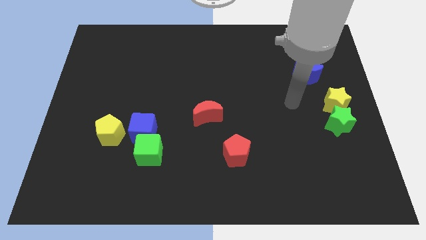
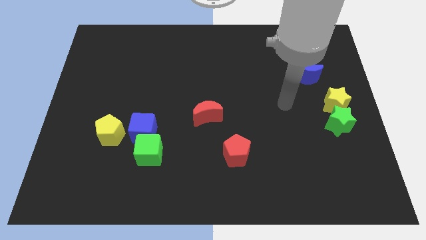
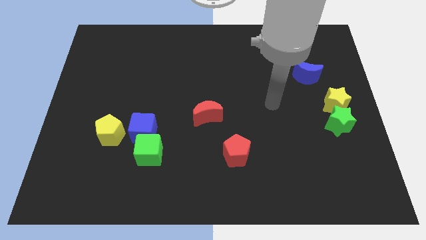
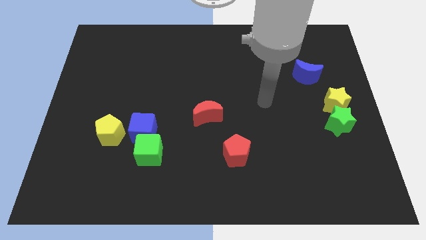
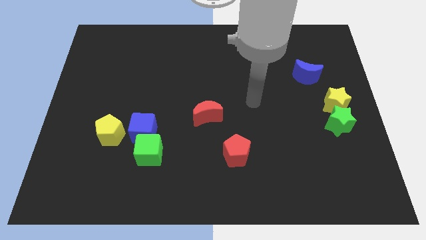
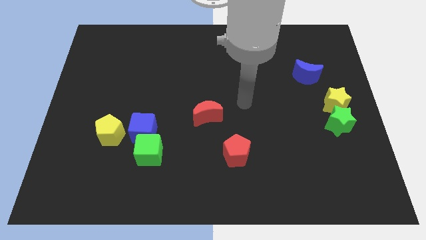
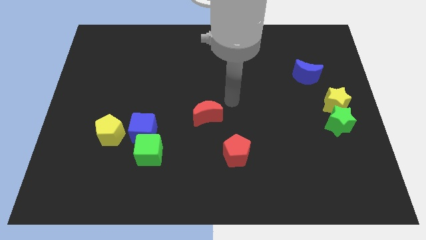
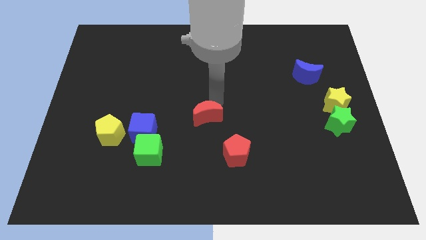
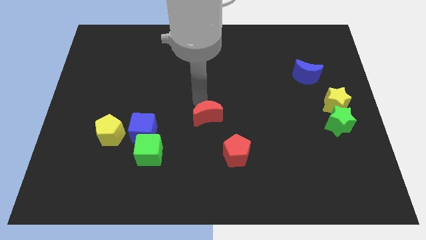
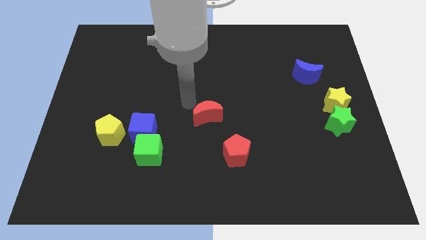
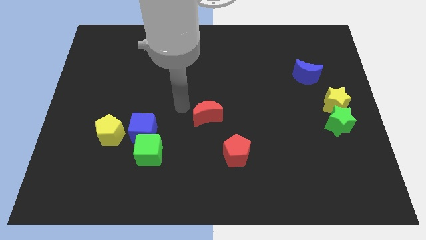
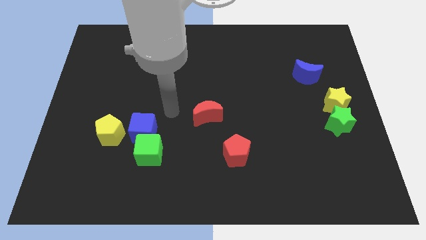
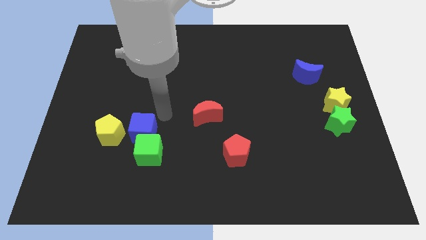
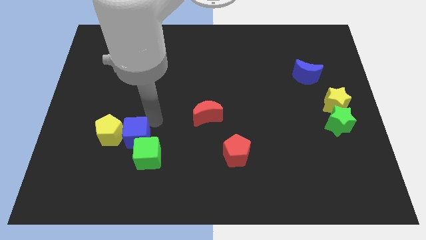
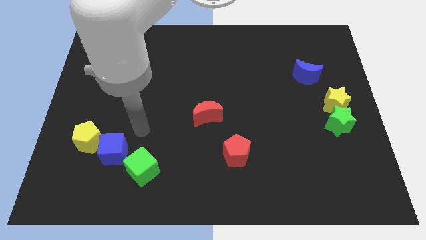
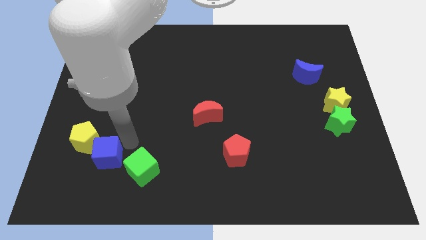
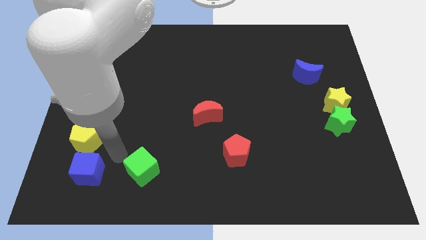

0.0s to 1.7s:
pull the green cube apart from the blue cube

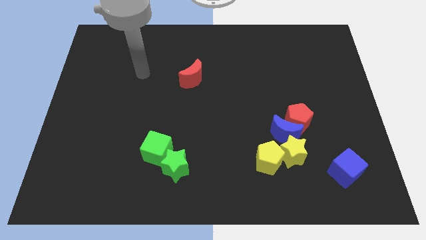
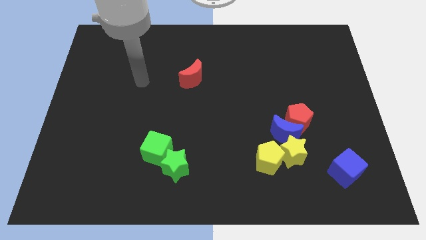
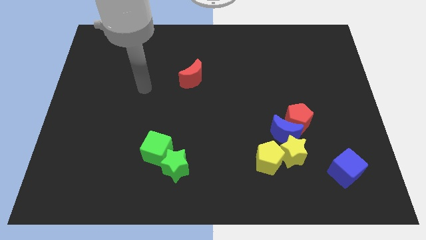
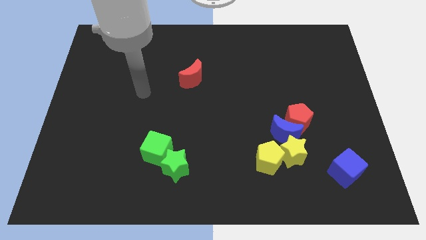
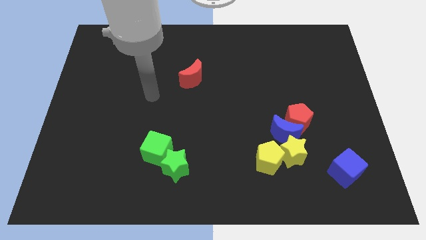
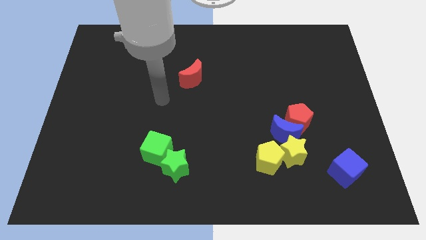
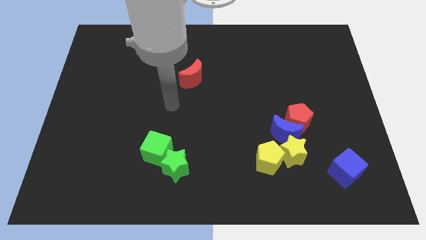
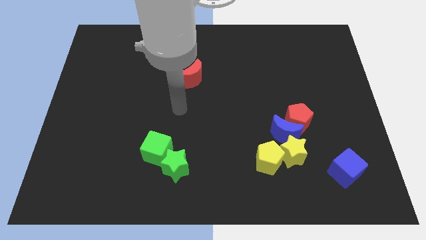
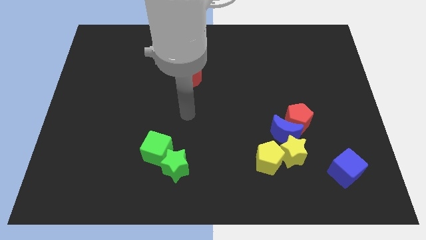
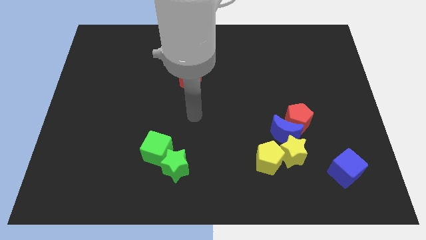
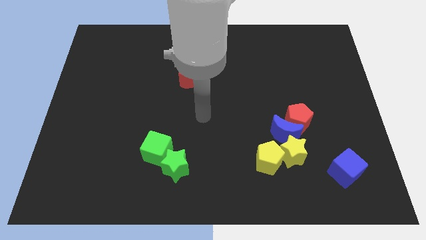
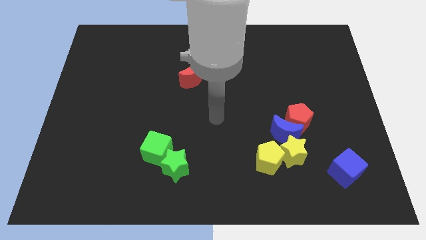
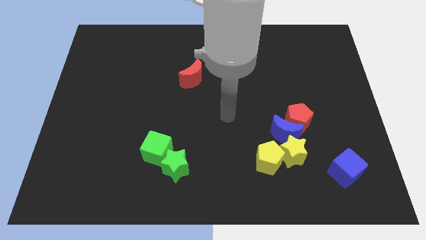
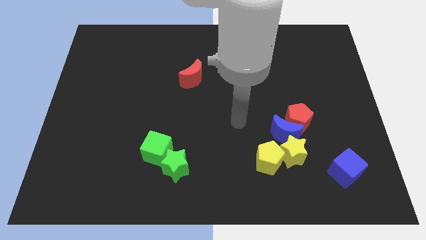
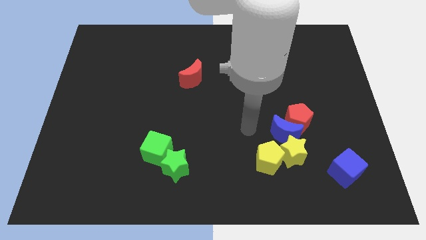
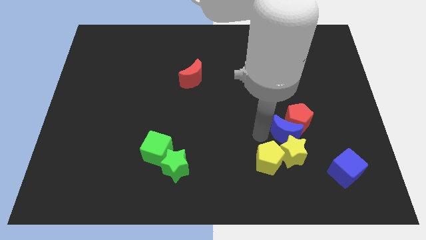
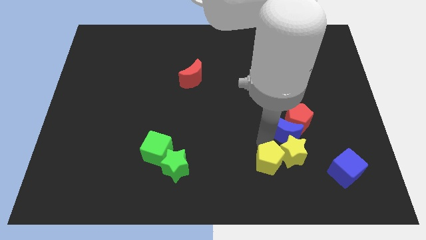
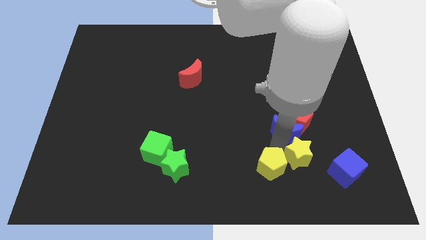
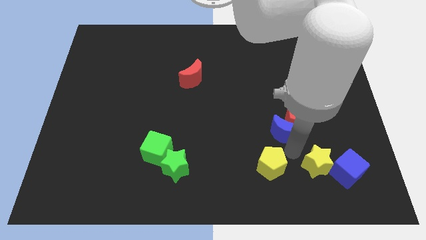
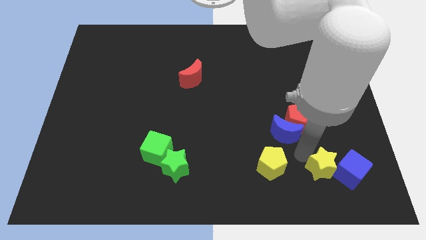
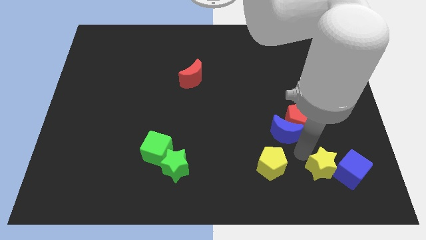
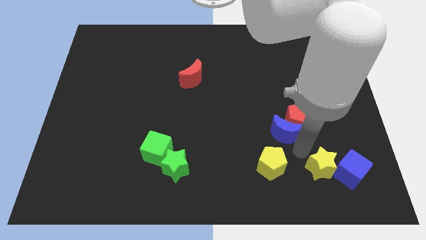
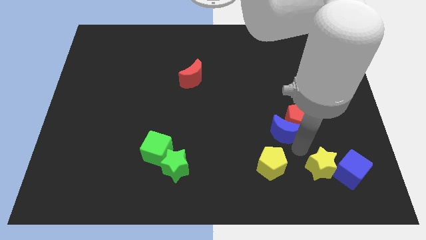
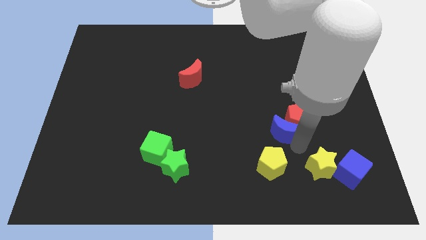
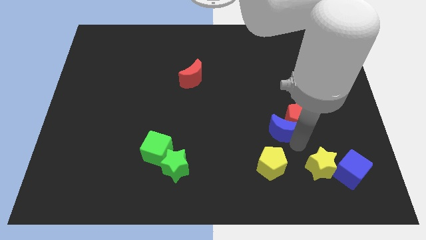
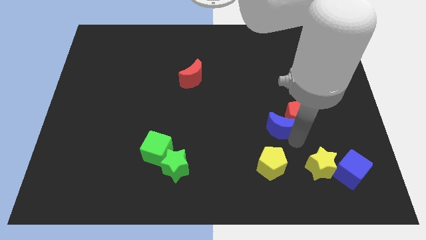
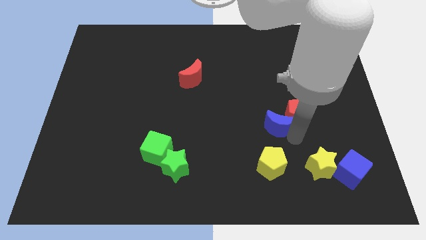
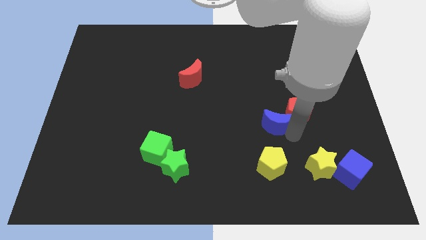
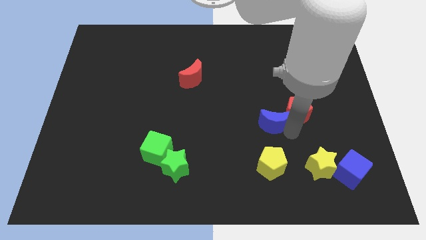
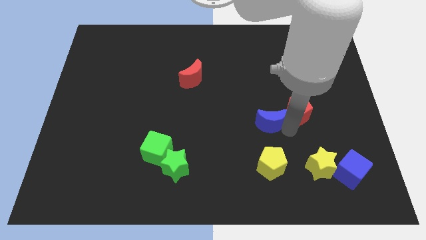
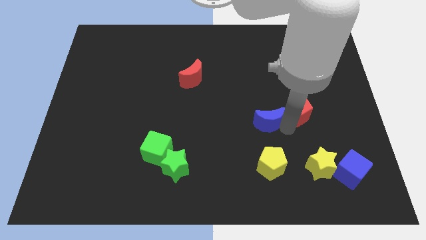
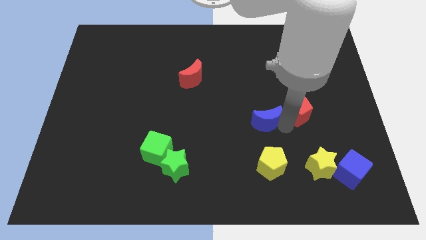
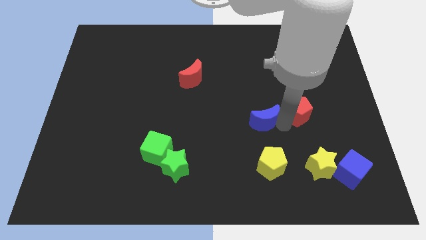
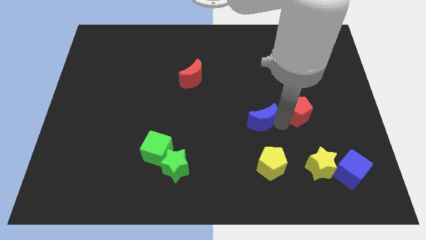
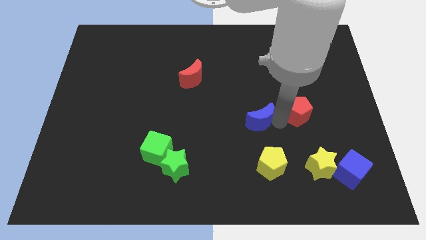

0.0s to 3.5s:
pull the blue moon apart from the clump

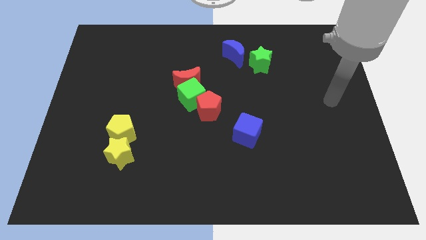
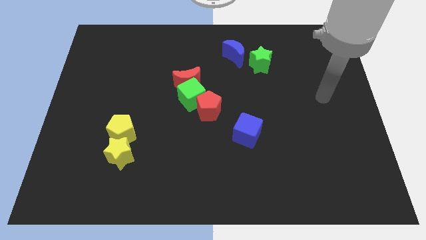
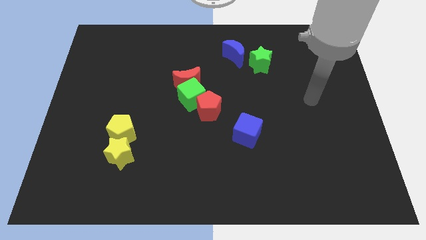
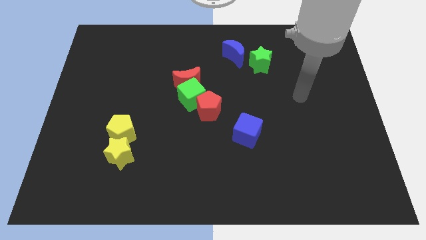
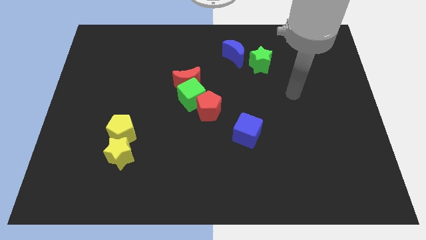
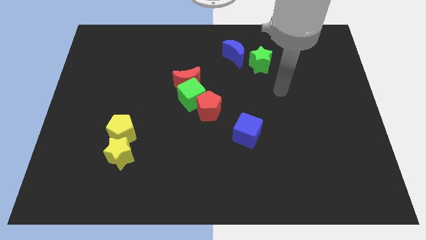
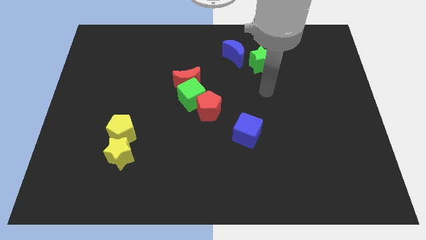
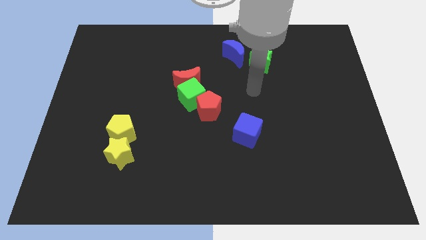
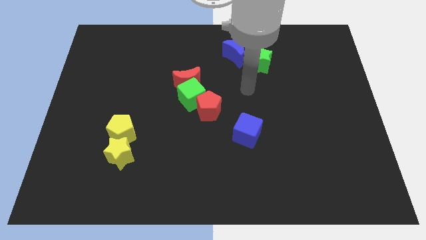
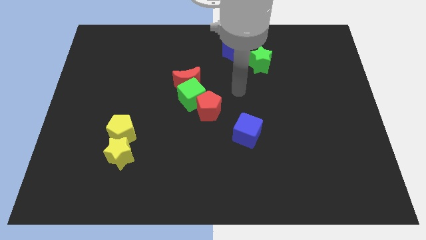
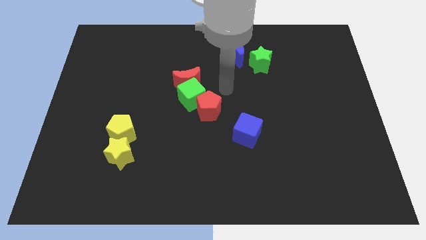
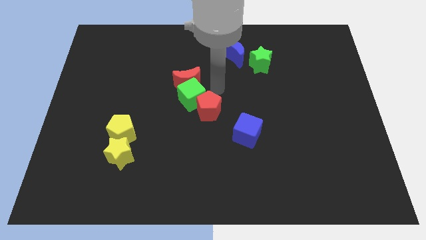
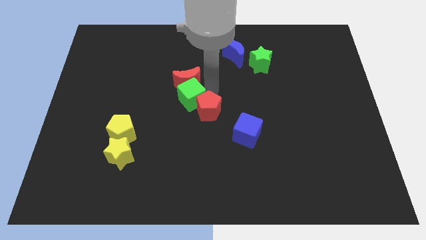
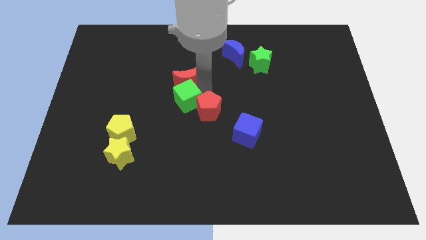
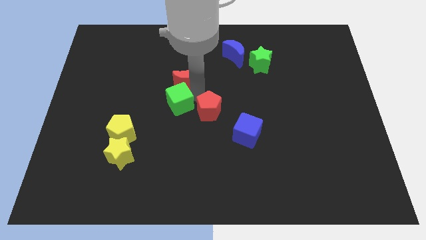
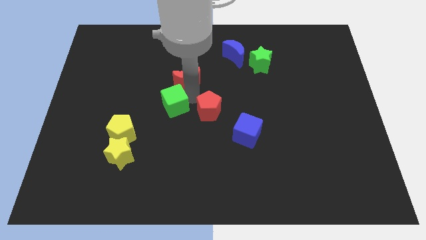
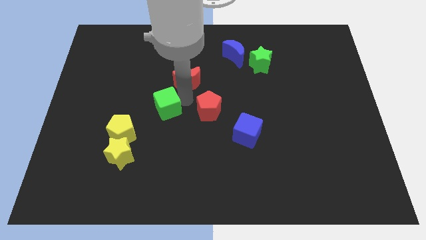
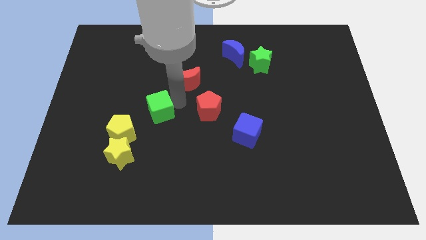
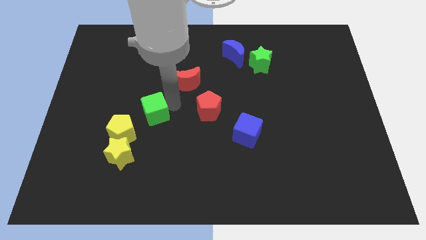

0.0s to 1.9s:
move the green cube away from the red moon and red pentagon

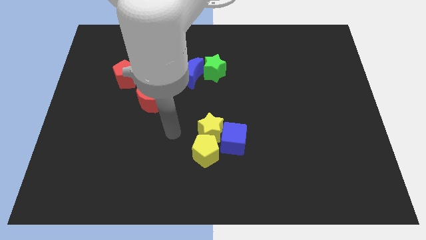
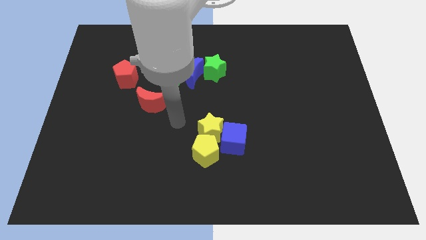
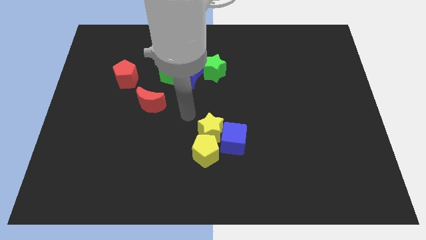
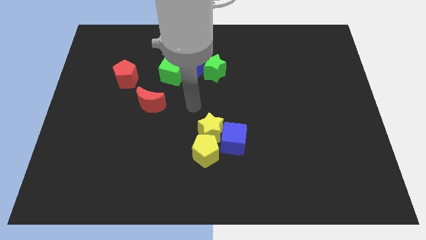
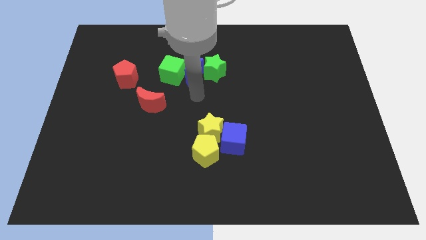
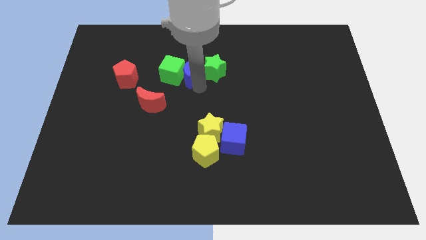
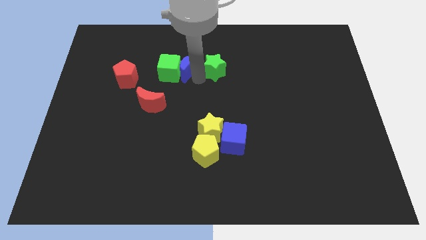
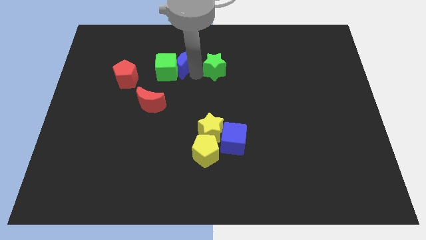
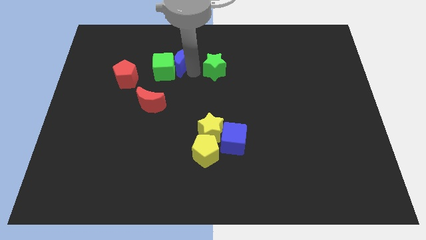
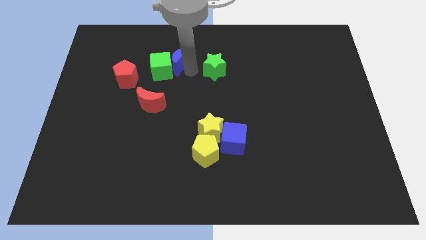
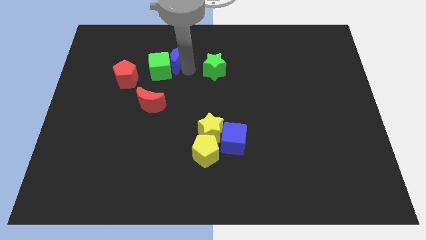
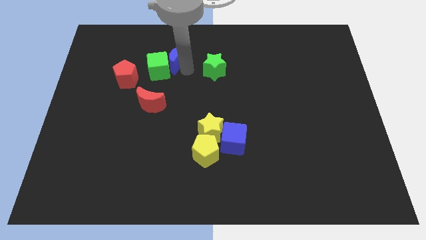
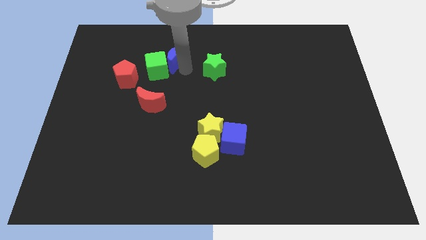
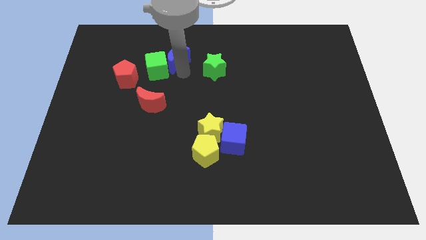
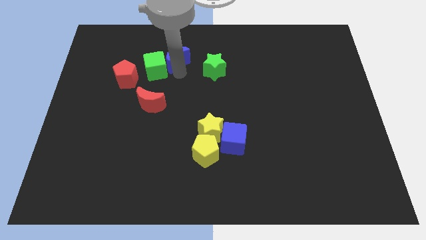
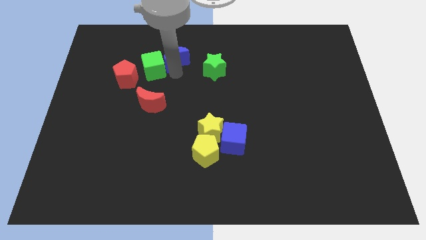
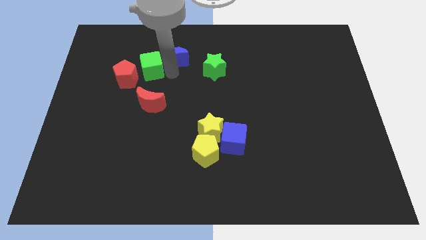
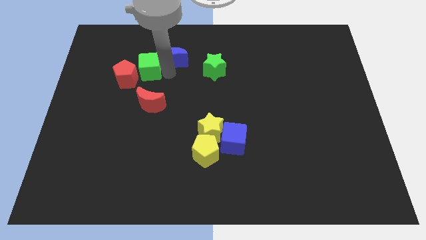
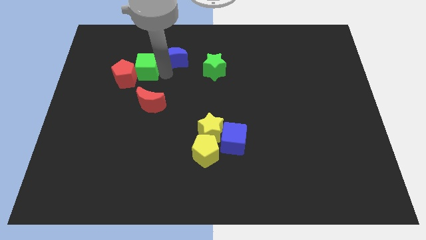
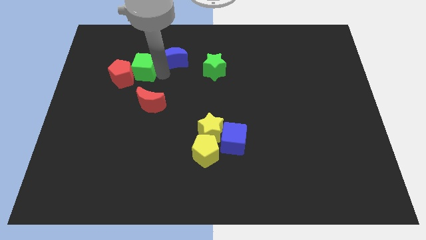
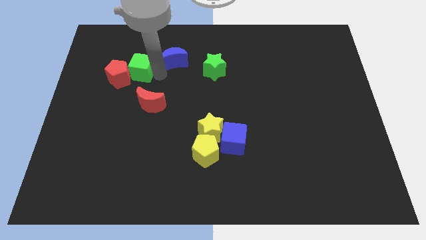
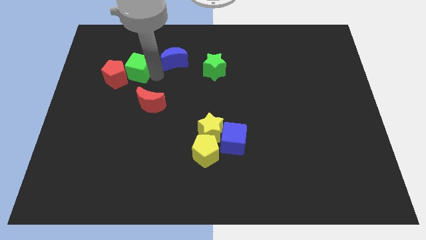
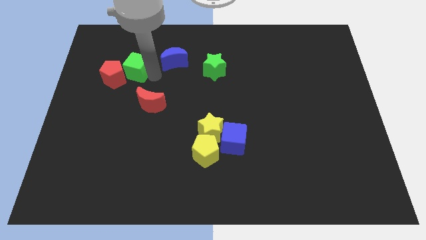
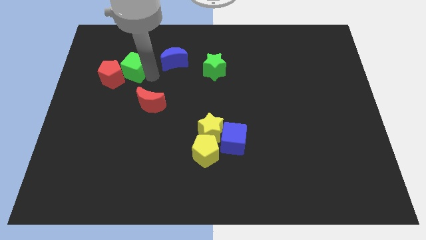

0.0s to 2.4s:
separate the green cube from the blue moon
